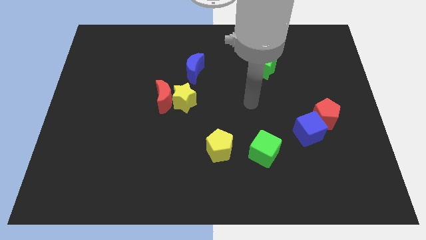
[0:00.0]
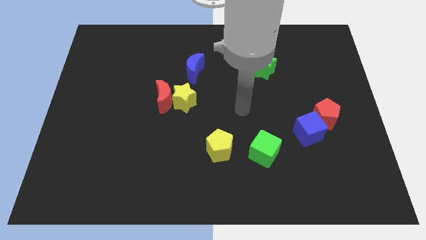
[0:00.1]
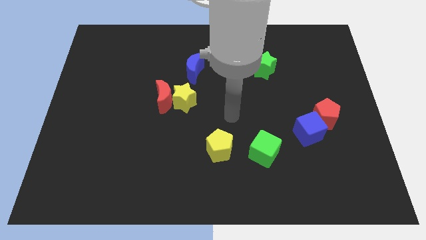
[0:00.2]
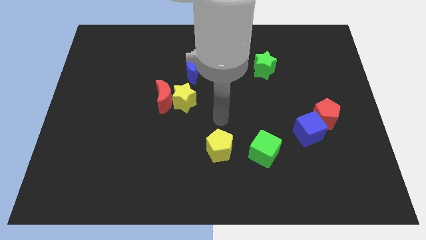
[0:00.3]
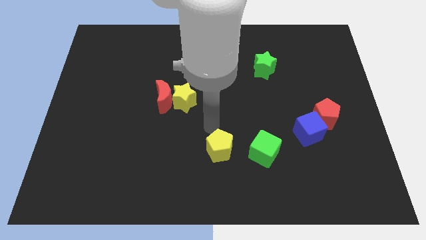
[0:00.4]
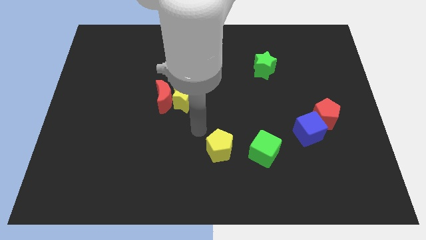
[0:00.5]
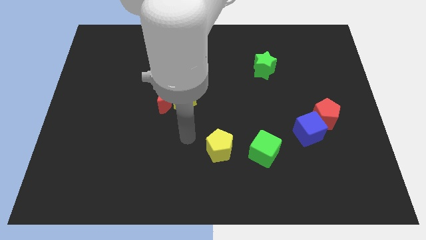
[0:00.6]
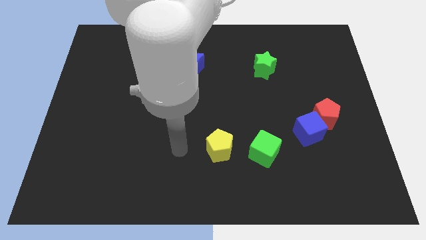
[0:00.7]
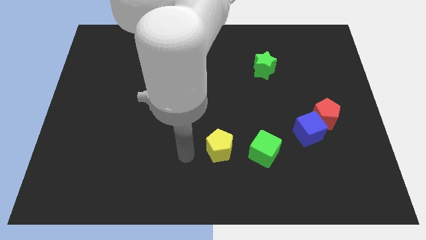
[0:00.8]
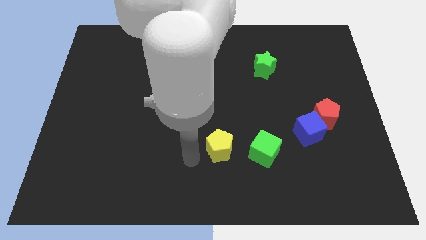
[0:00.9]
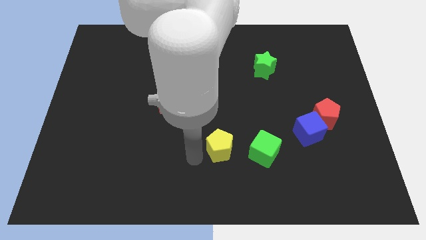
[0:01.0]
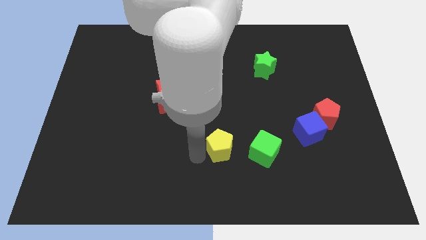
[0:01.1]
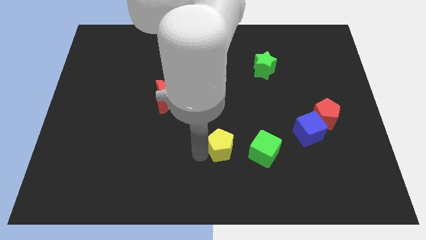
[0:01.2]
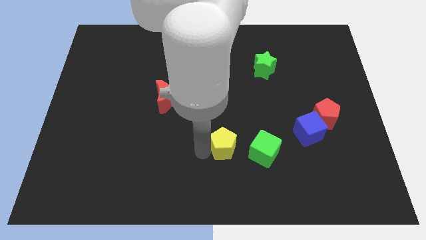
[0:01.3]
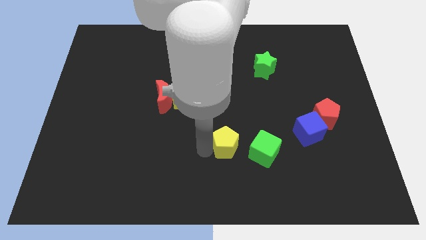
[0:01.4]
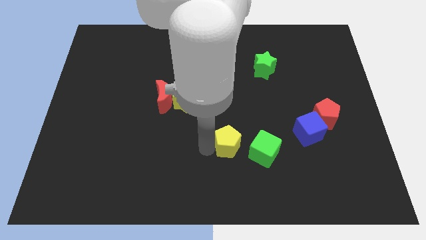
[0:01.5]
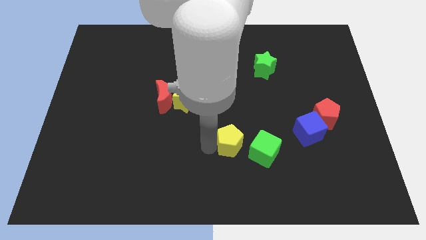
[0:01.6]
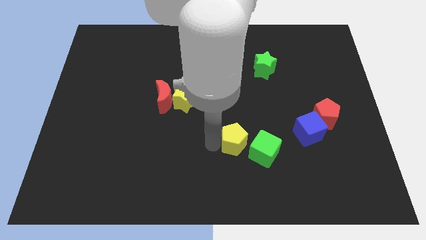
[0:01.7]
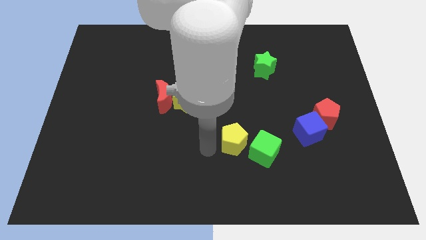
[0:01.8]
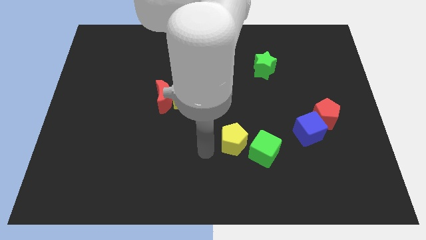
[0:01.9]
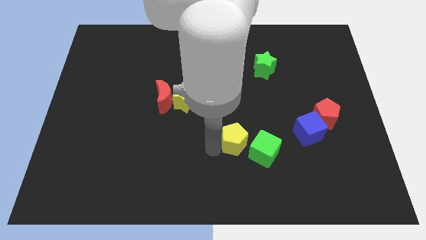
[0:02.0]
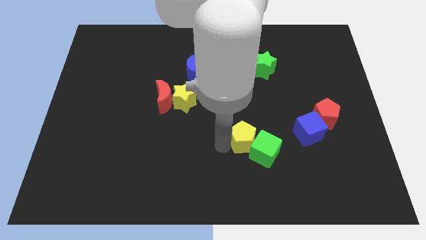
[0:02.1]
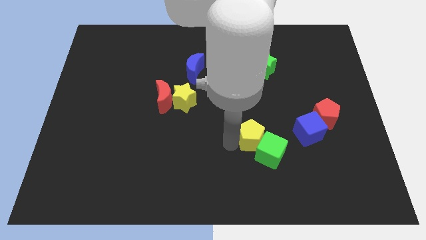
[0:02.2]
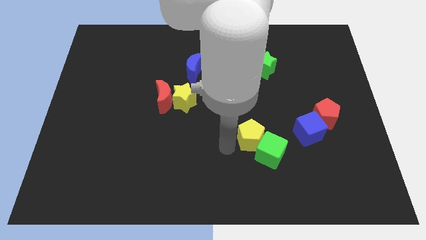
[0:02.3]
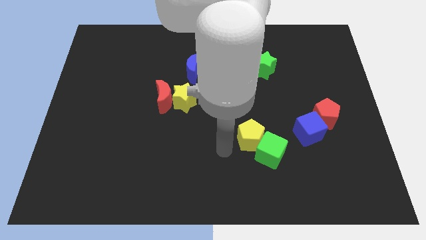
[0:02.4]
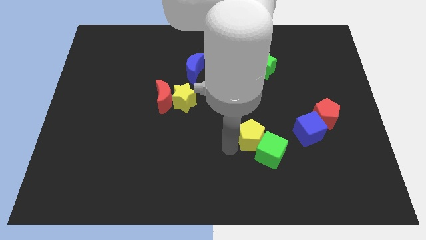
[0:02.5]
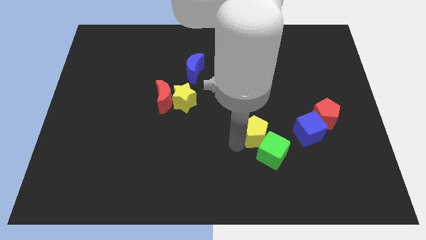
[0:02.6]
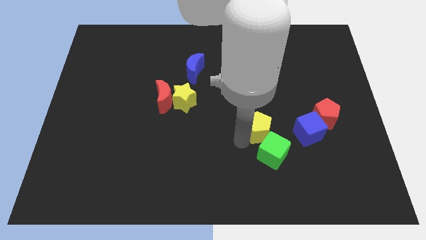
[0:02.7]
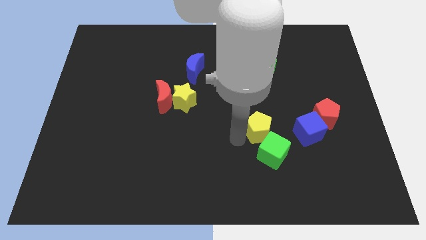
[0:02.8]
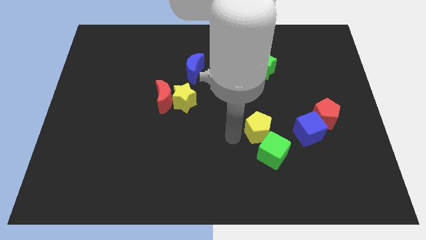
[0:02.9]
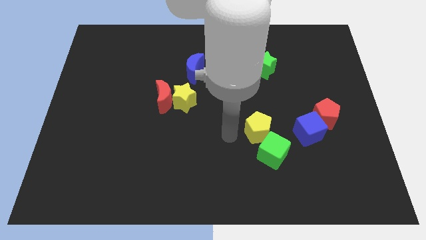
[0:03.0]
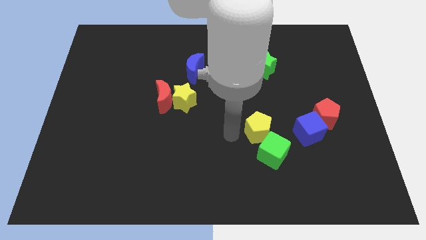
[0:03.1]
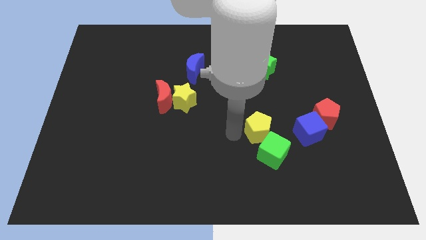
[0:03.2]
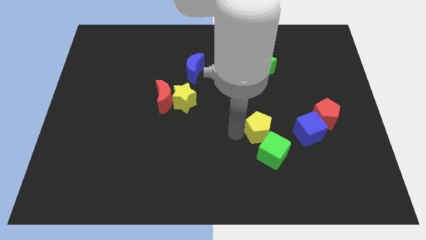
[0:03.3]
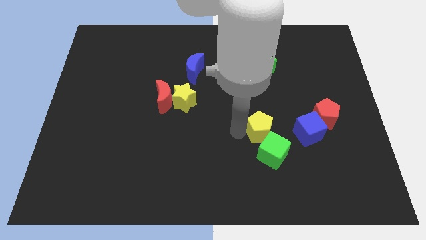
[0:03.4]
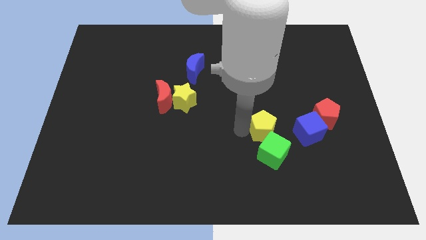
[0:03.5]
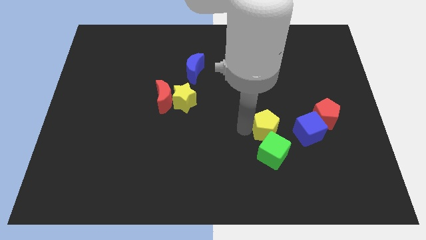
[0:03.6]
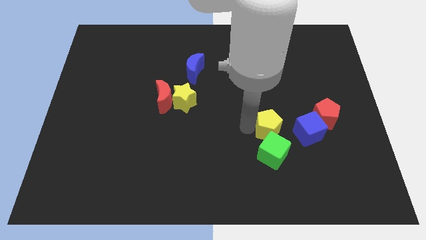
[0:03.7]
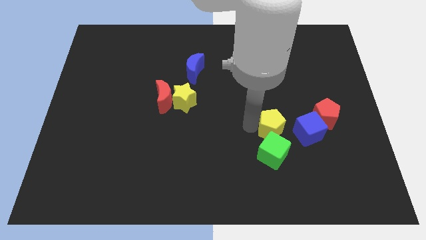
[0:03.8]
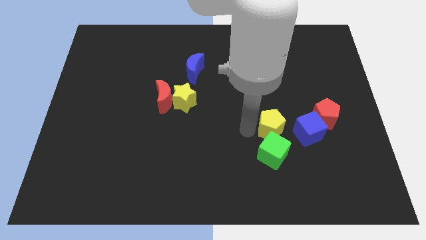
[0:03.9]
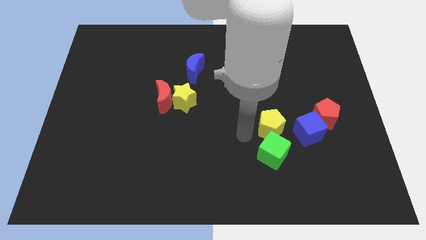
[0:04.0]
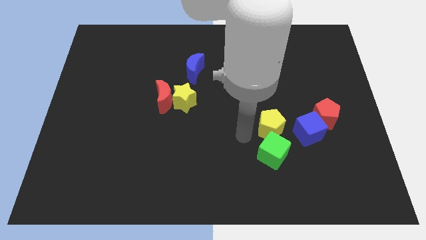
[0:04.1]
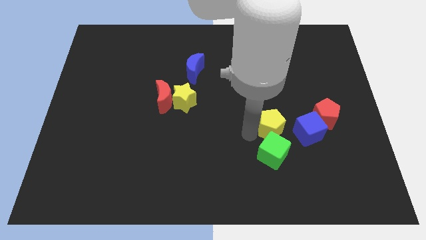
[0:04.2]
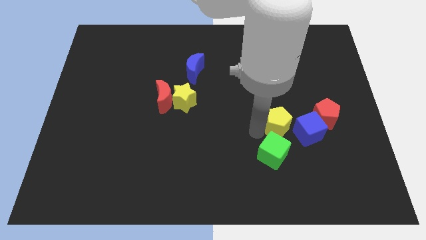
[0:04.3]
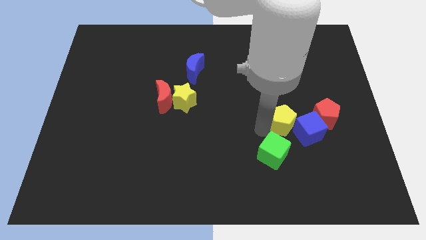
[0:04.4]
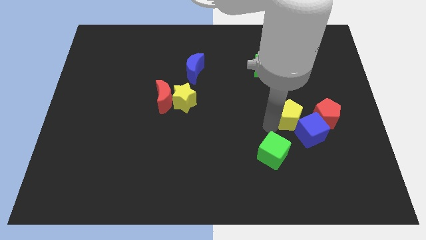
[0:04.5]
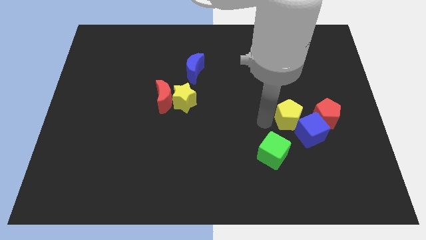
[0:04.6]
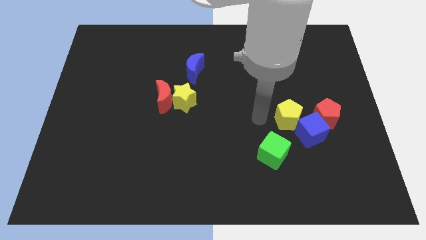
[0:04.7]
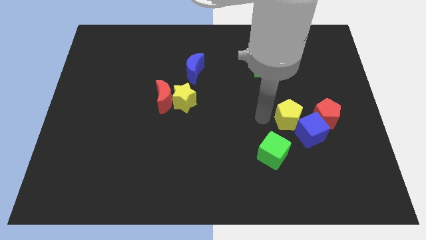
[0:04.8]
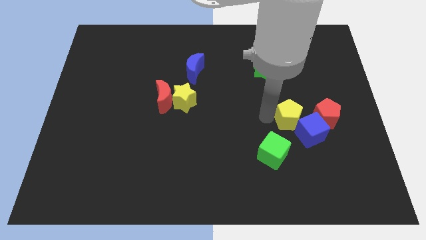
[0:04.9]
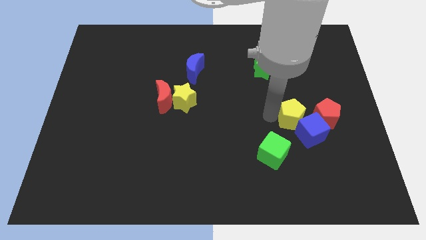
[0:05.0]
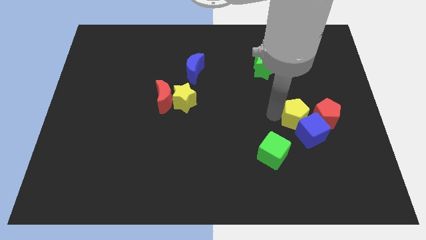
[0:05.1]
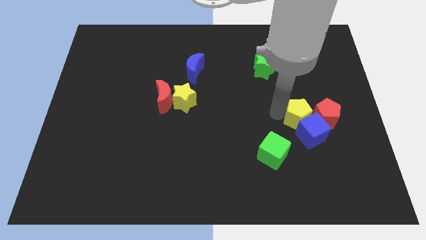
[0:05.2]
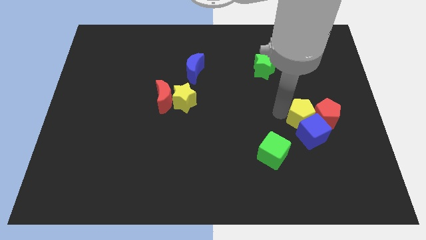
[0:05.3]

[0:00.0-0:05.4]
put the yellow pentagon to the red pentagon

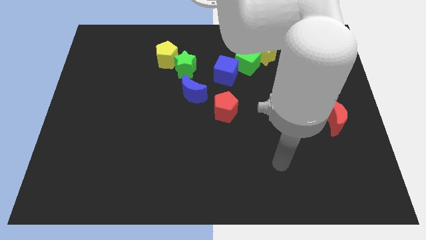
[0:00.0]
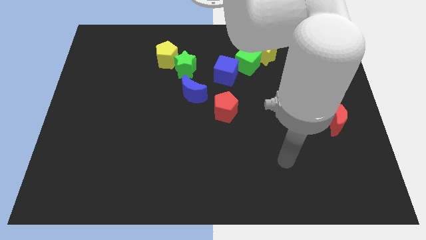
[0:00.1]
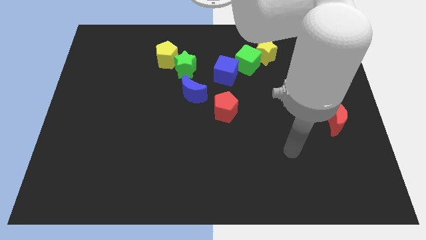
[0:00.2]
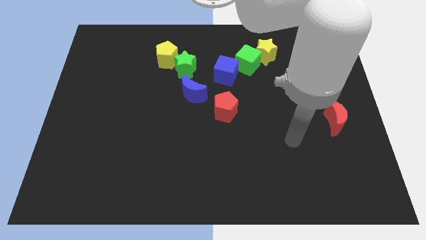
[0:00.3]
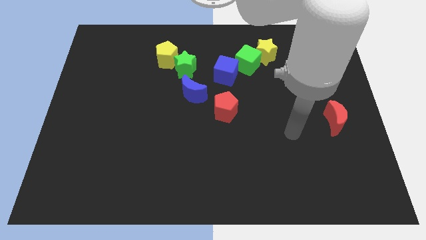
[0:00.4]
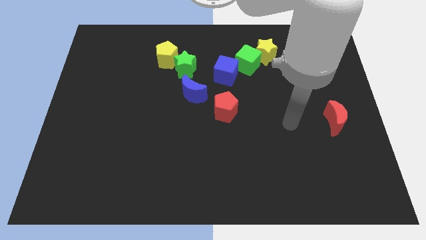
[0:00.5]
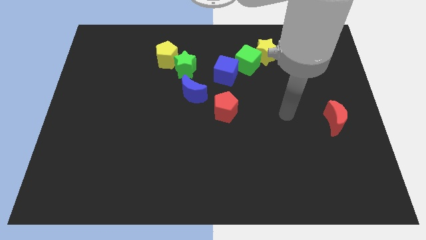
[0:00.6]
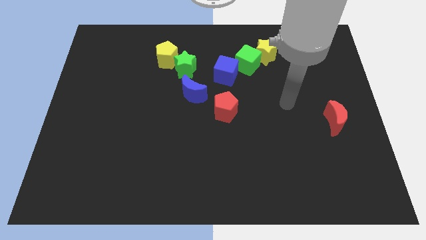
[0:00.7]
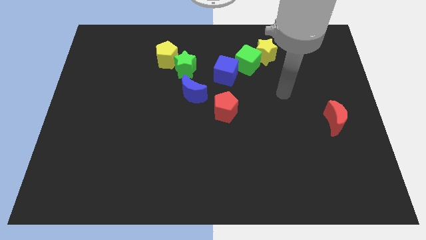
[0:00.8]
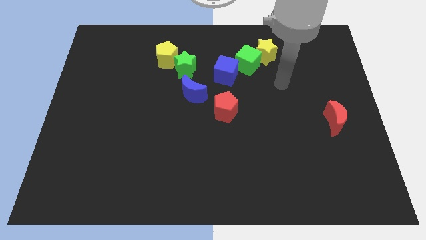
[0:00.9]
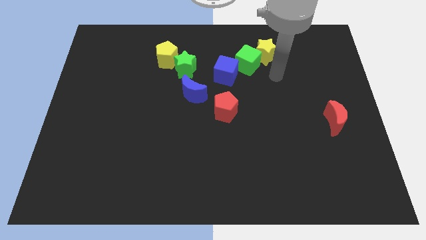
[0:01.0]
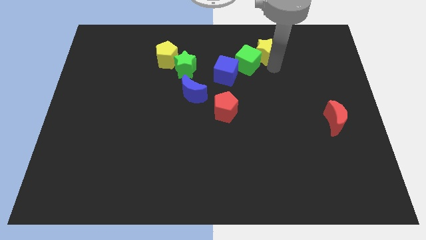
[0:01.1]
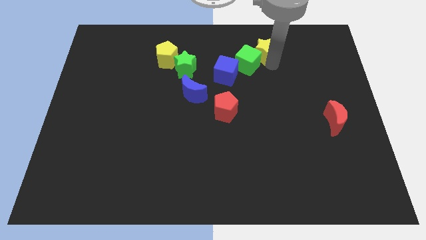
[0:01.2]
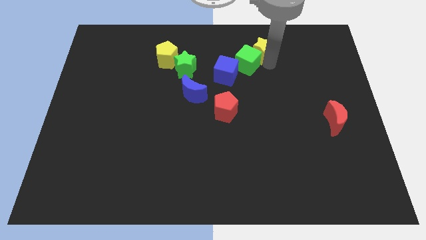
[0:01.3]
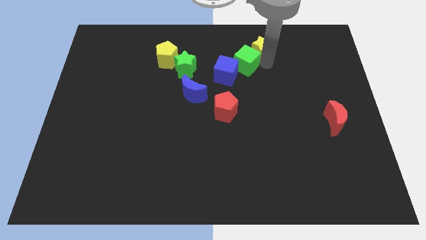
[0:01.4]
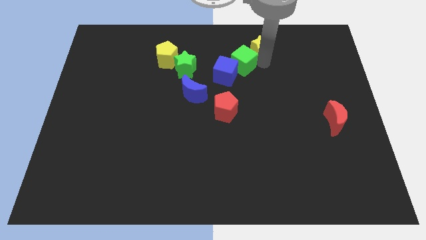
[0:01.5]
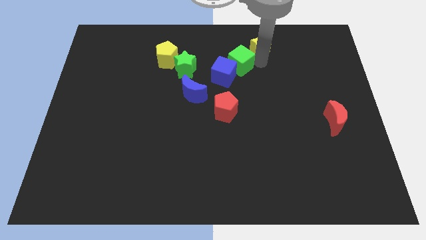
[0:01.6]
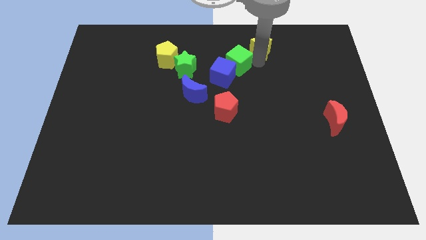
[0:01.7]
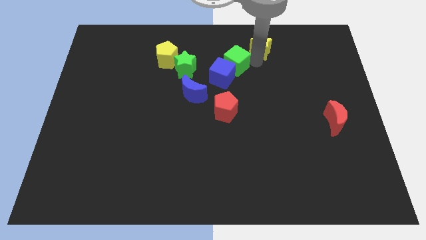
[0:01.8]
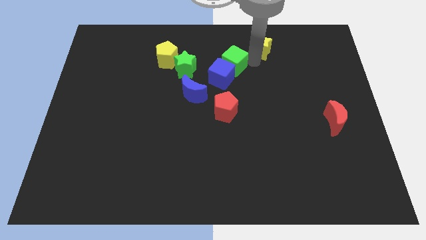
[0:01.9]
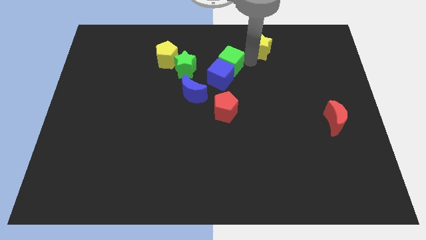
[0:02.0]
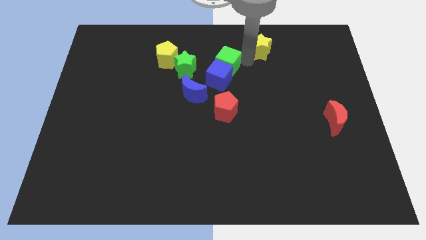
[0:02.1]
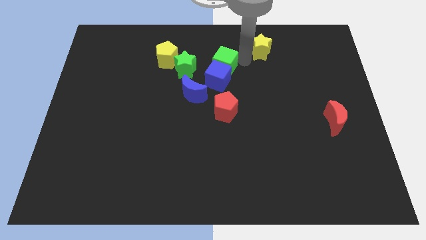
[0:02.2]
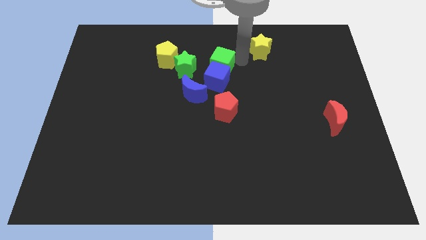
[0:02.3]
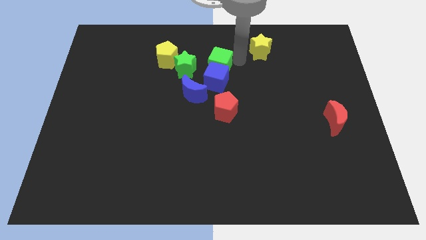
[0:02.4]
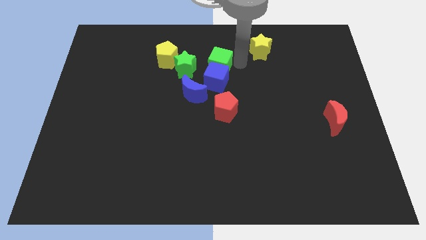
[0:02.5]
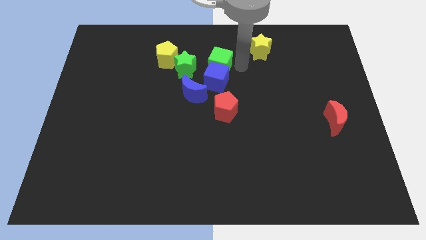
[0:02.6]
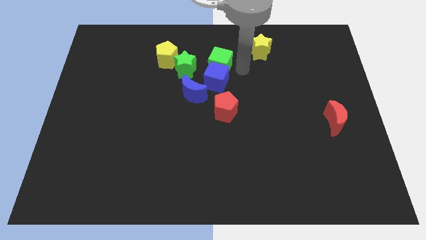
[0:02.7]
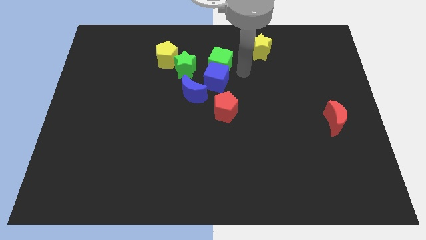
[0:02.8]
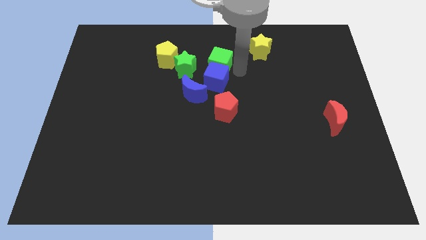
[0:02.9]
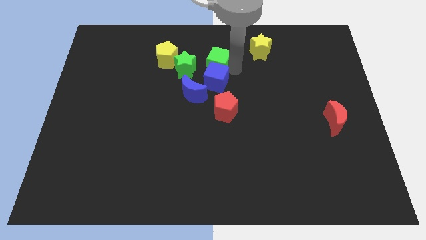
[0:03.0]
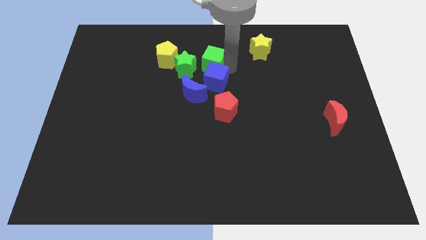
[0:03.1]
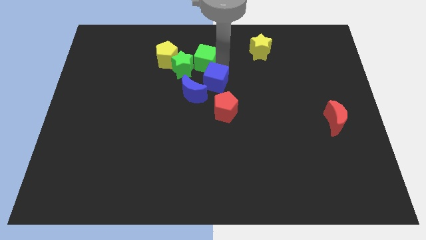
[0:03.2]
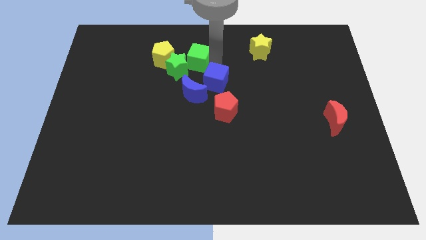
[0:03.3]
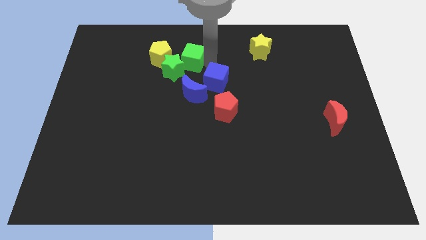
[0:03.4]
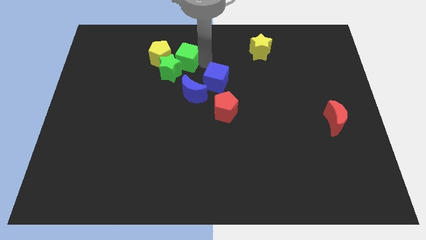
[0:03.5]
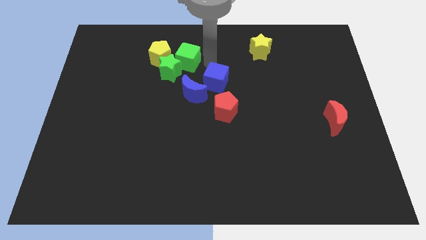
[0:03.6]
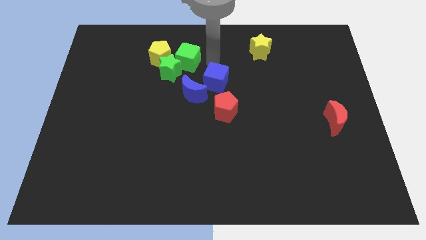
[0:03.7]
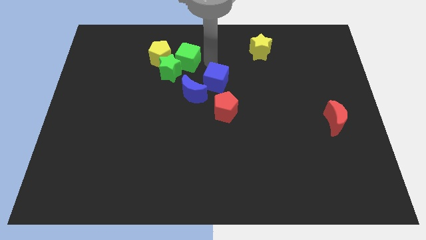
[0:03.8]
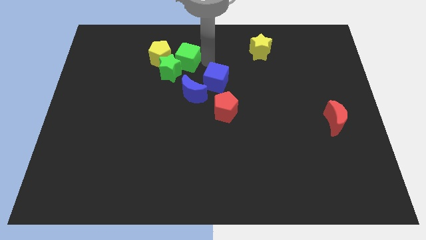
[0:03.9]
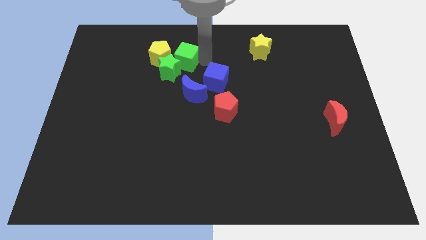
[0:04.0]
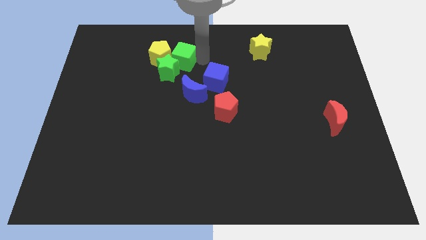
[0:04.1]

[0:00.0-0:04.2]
move the green cube next to the yellow pentagon
